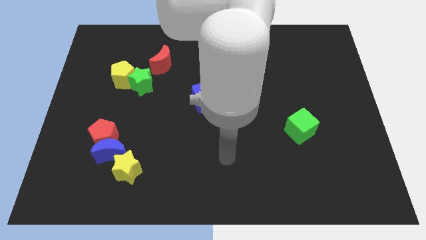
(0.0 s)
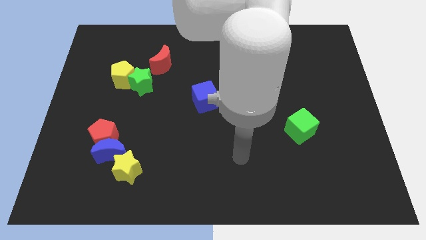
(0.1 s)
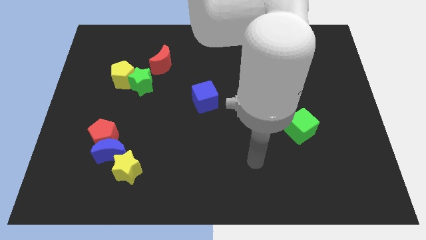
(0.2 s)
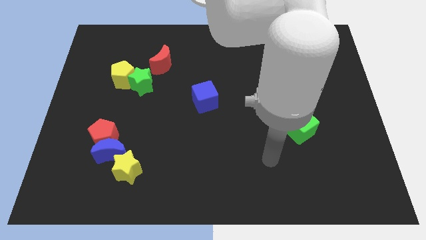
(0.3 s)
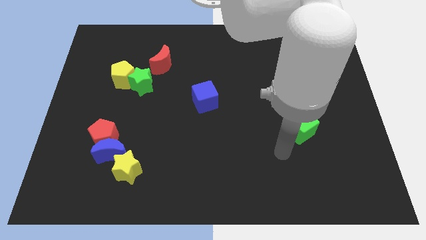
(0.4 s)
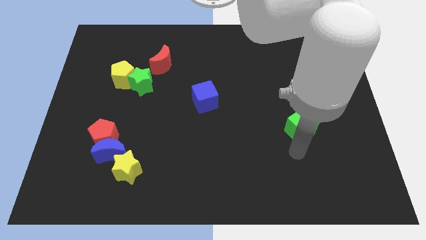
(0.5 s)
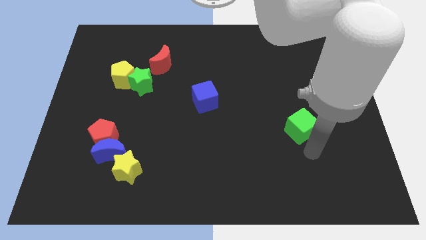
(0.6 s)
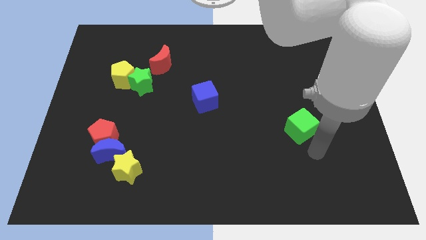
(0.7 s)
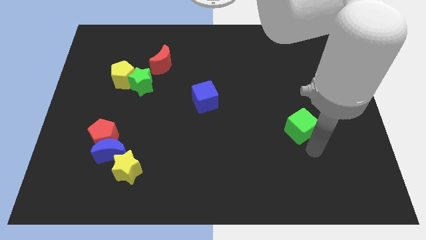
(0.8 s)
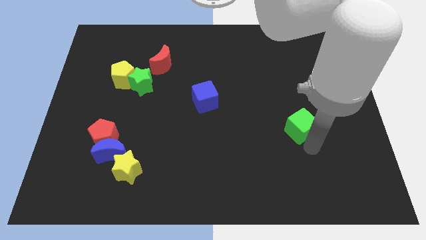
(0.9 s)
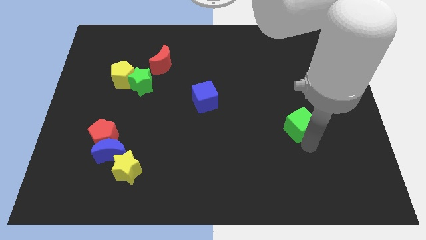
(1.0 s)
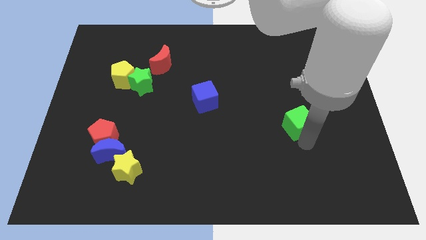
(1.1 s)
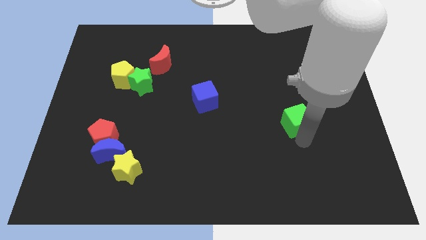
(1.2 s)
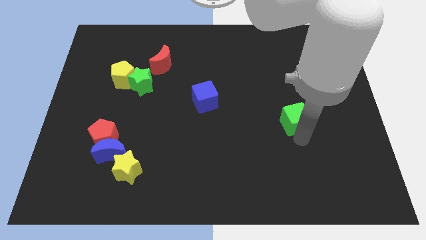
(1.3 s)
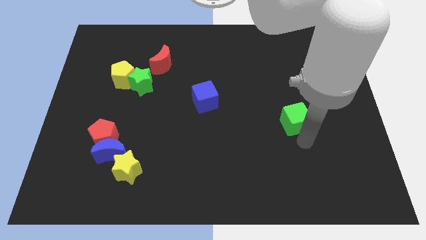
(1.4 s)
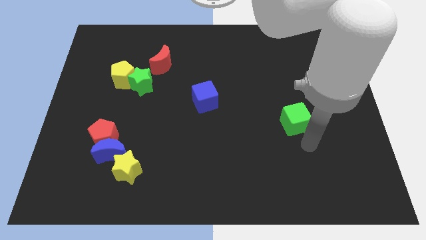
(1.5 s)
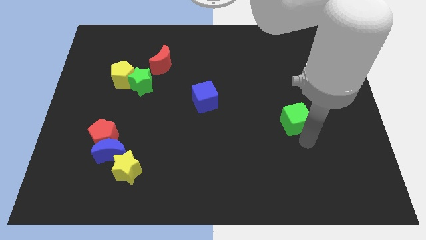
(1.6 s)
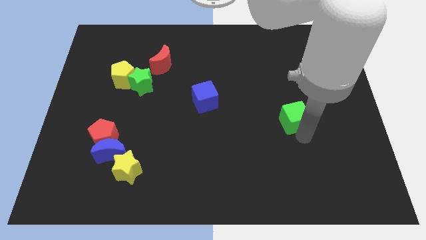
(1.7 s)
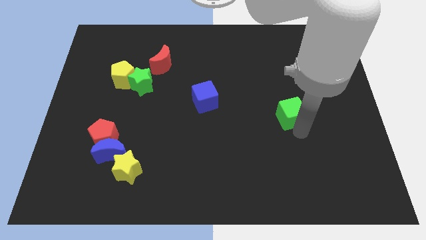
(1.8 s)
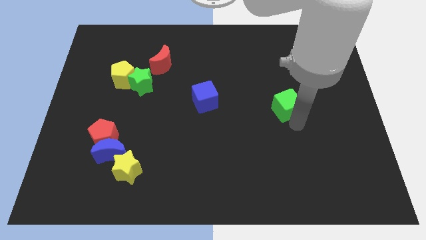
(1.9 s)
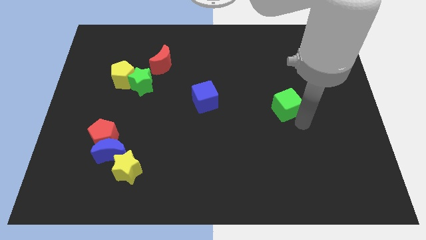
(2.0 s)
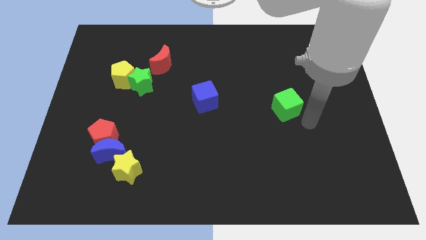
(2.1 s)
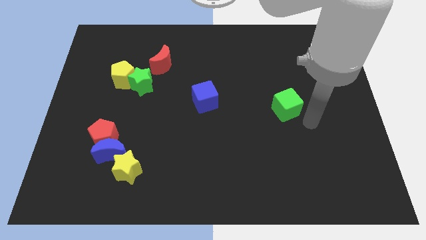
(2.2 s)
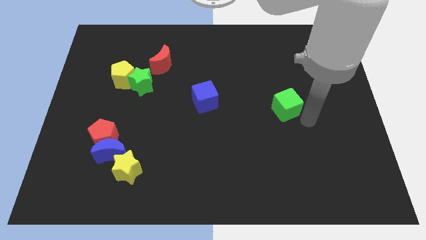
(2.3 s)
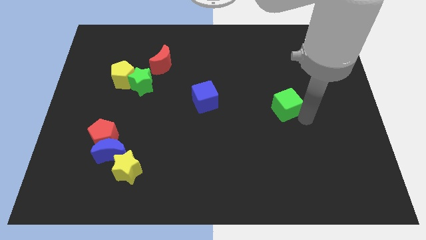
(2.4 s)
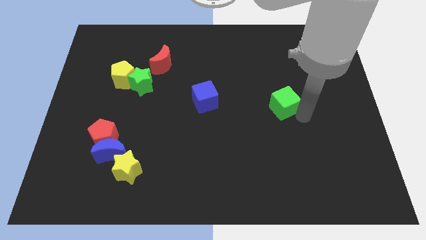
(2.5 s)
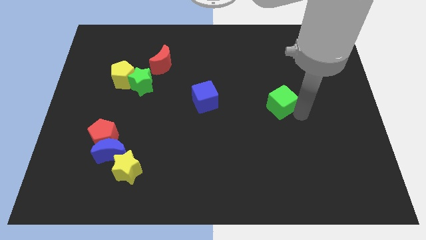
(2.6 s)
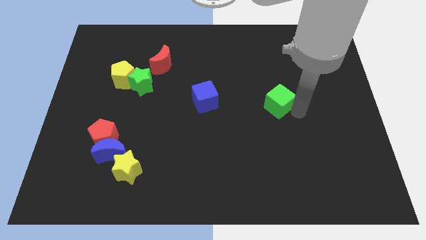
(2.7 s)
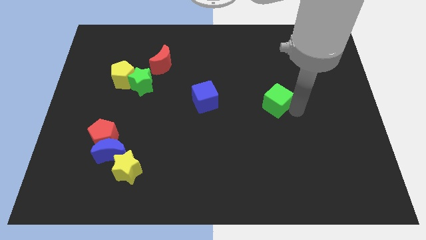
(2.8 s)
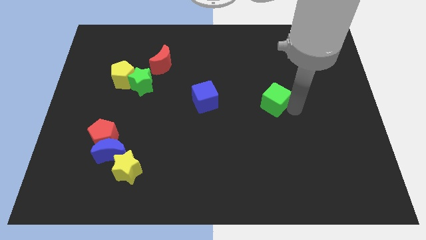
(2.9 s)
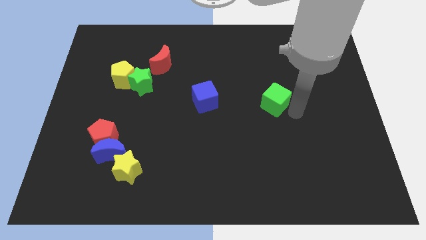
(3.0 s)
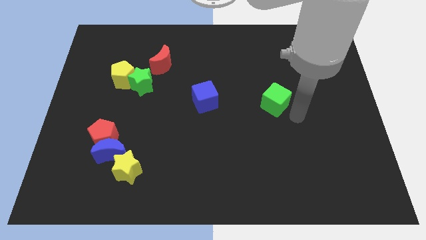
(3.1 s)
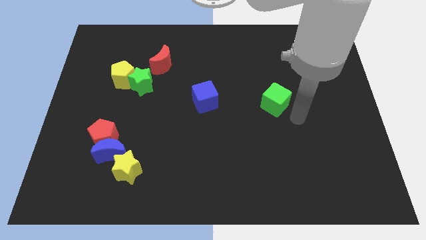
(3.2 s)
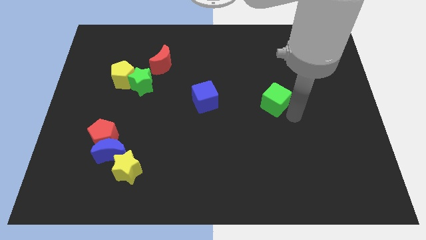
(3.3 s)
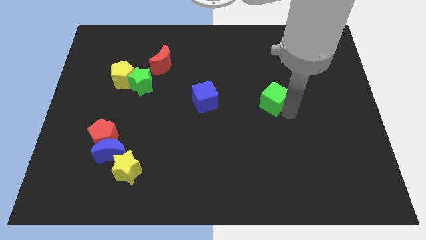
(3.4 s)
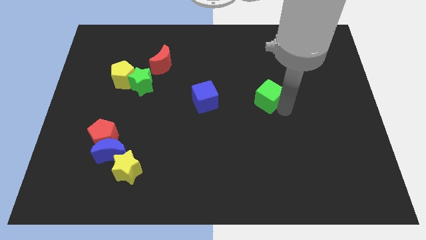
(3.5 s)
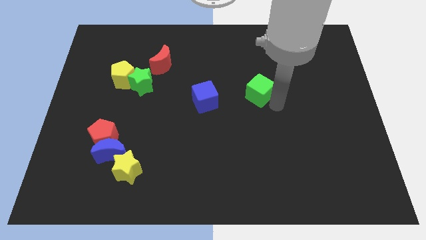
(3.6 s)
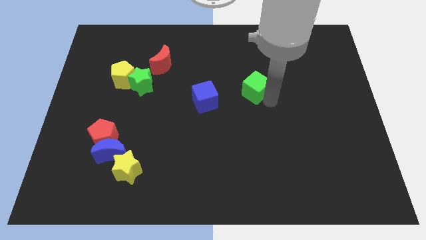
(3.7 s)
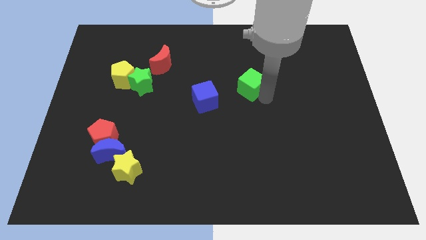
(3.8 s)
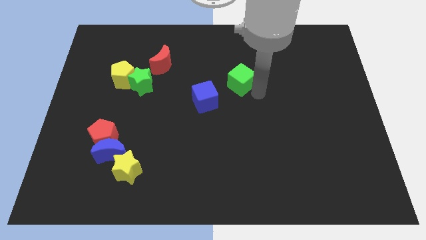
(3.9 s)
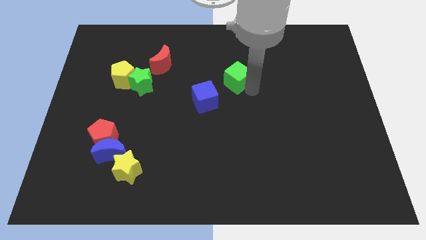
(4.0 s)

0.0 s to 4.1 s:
slide the green cube upwards and then to the left

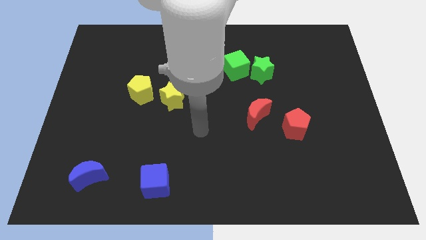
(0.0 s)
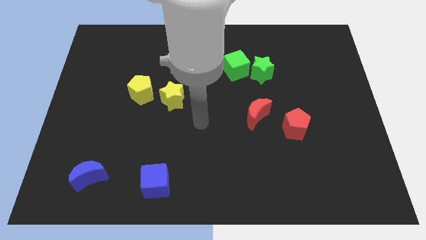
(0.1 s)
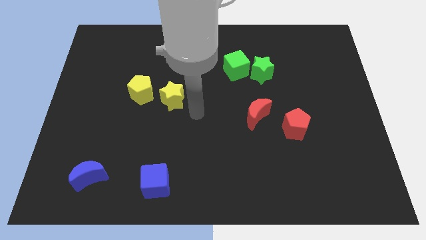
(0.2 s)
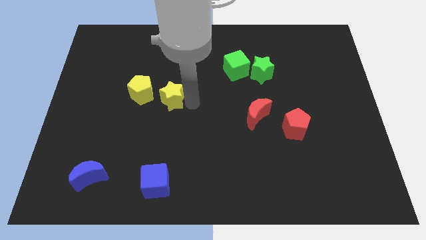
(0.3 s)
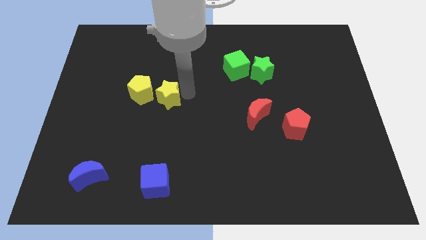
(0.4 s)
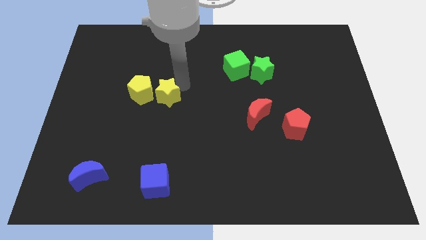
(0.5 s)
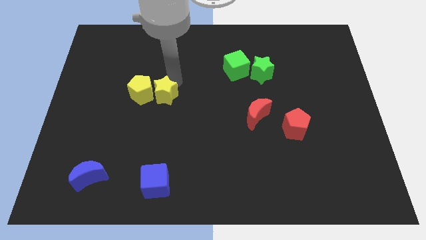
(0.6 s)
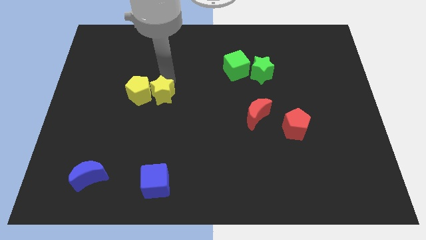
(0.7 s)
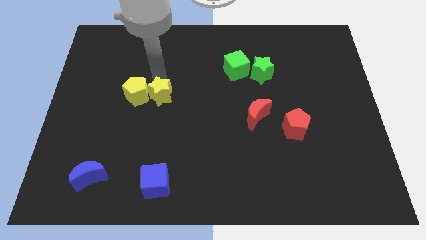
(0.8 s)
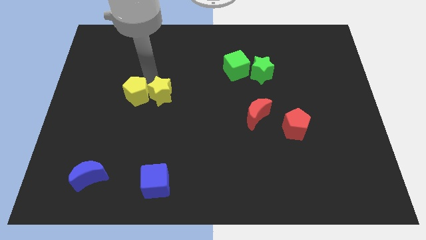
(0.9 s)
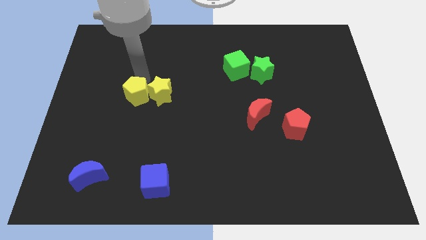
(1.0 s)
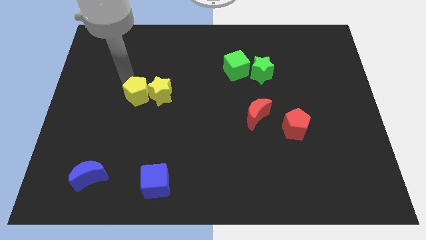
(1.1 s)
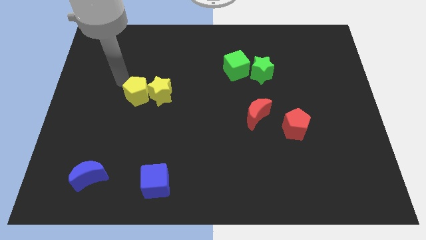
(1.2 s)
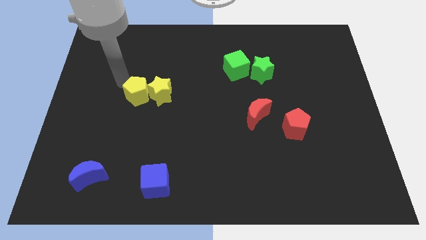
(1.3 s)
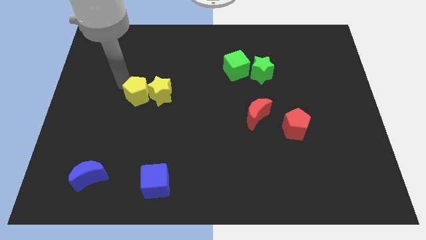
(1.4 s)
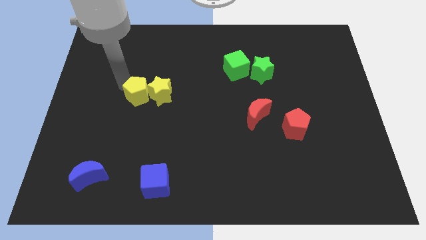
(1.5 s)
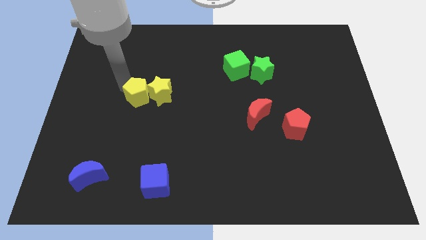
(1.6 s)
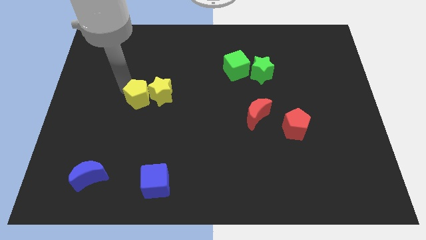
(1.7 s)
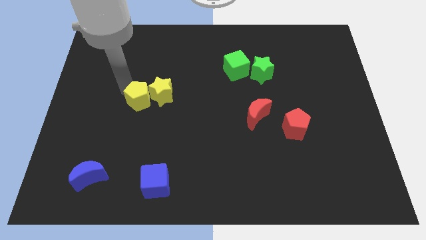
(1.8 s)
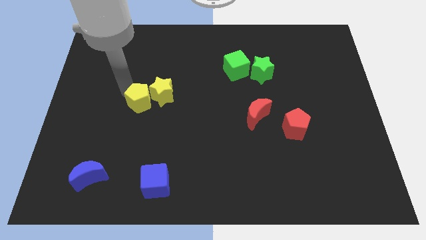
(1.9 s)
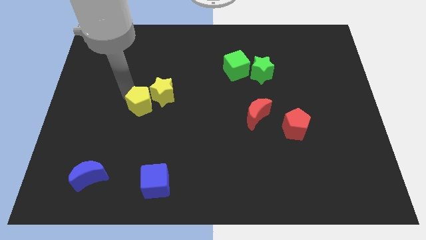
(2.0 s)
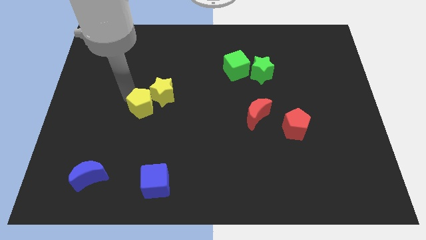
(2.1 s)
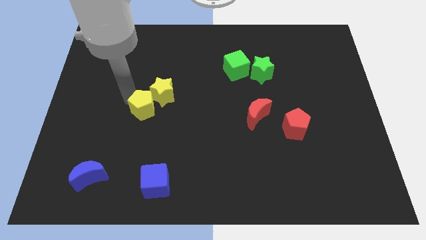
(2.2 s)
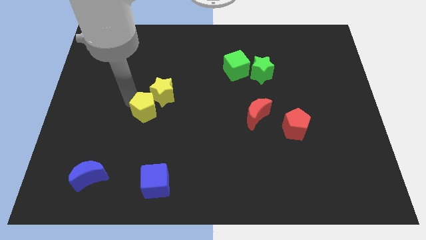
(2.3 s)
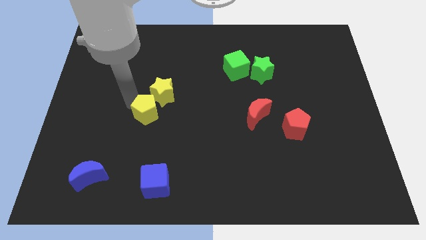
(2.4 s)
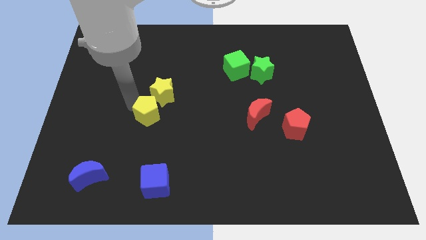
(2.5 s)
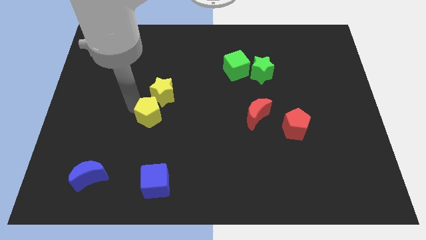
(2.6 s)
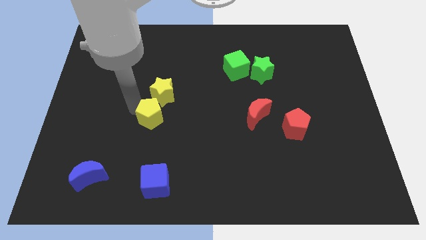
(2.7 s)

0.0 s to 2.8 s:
push the yellow pentagon down and right diagonally somewhat

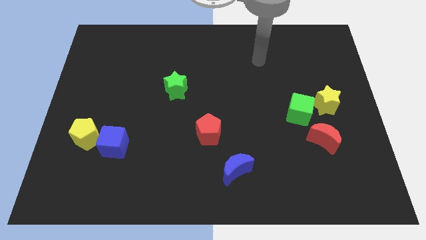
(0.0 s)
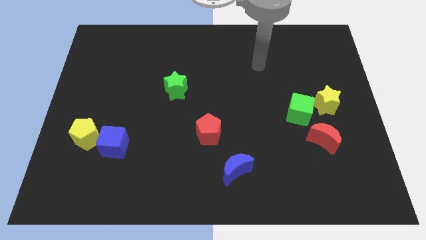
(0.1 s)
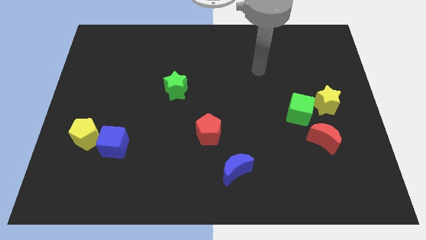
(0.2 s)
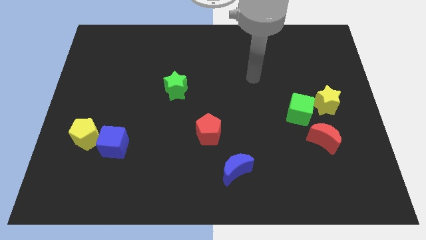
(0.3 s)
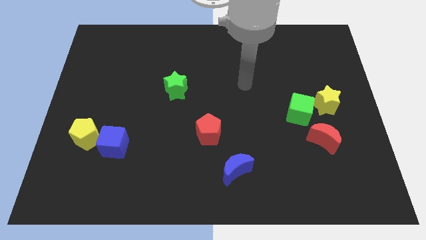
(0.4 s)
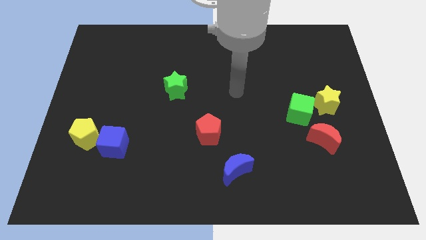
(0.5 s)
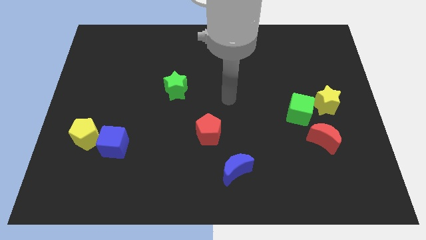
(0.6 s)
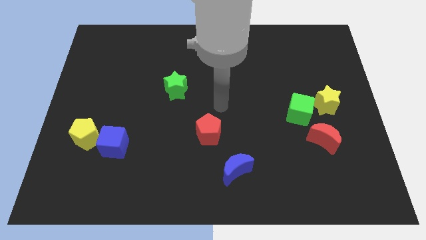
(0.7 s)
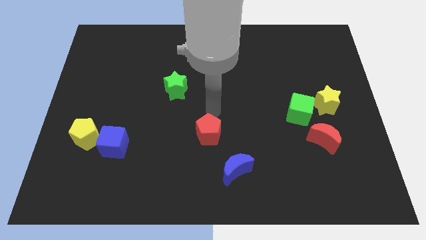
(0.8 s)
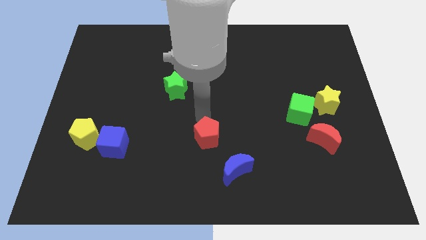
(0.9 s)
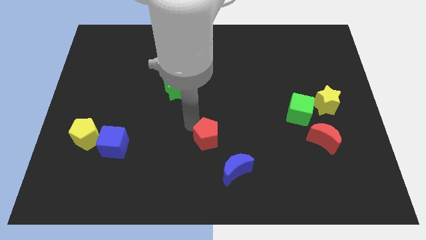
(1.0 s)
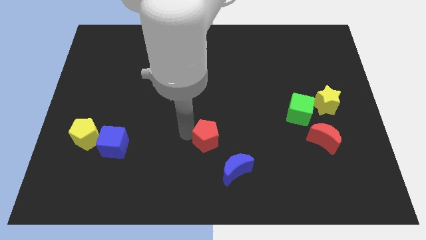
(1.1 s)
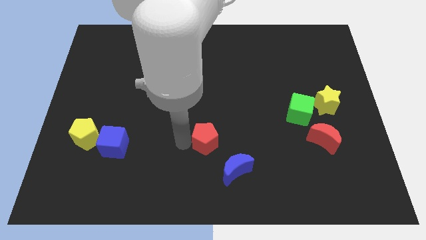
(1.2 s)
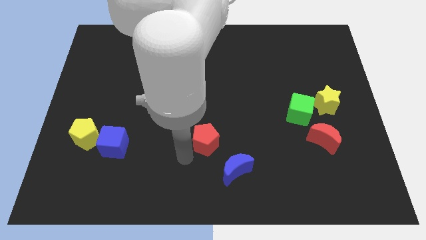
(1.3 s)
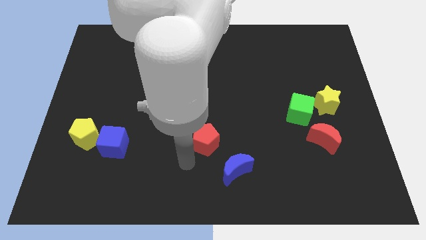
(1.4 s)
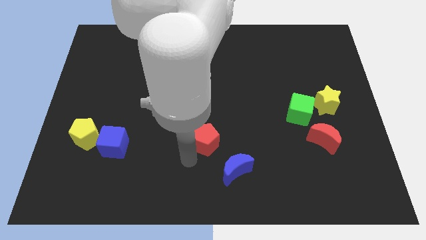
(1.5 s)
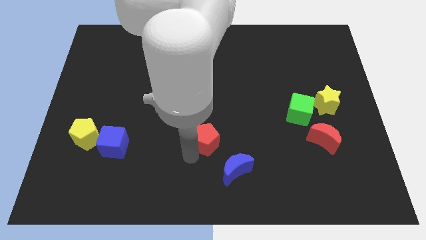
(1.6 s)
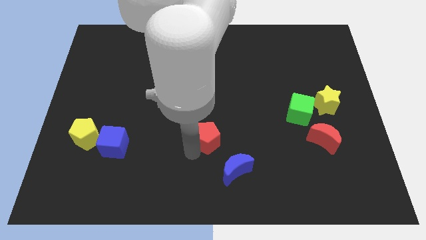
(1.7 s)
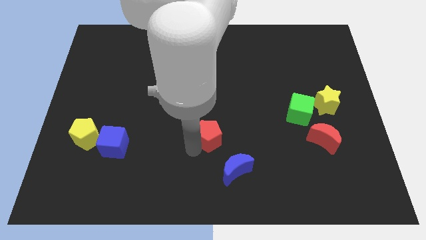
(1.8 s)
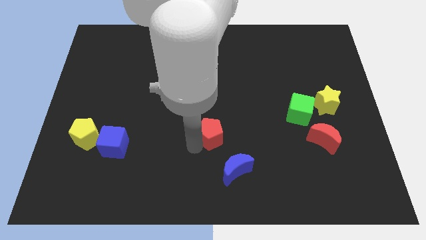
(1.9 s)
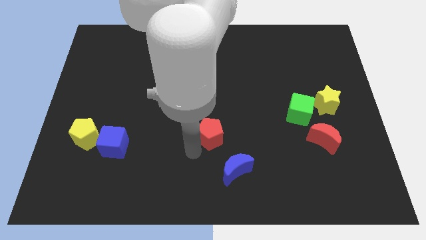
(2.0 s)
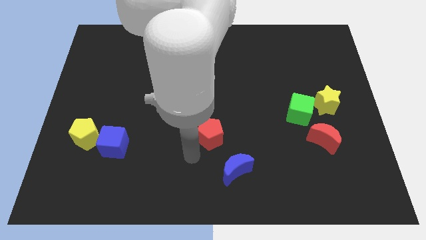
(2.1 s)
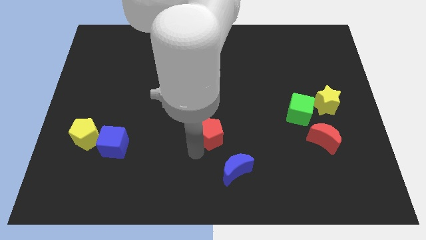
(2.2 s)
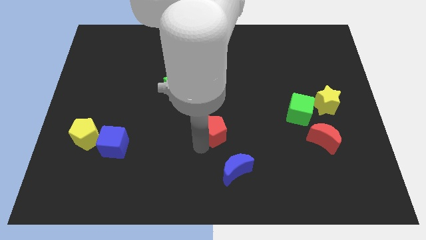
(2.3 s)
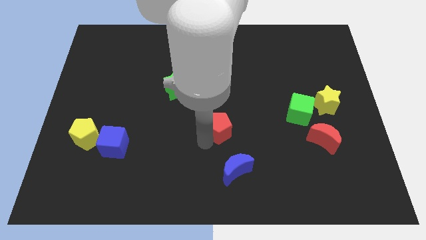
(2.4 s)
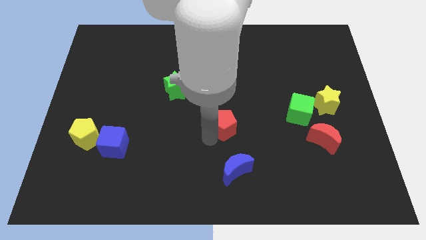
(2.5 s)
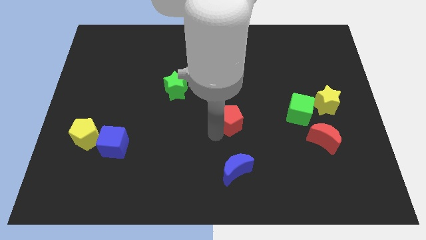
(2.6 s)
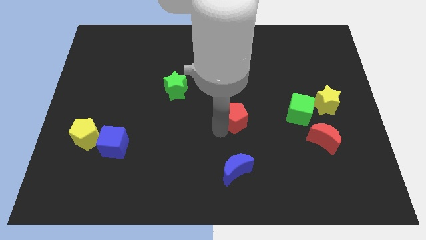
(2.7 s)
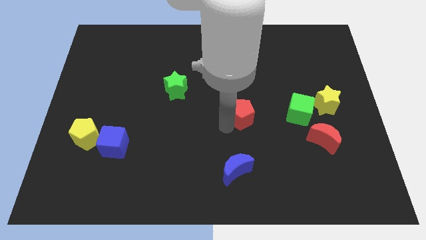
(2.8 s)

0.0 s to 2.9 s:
move the red pentagon somewhat up and then right
